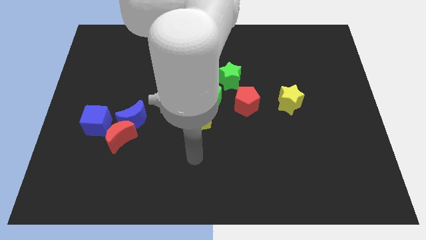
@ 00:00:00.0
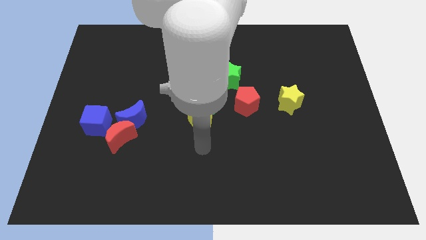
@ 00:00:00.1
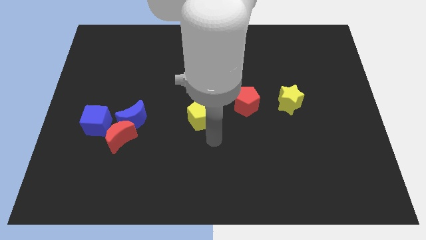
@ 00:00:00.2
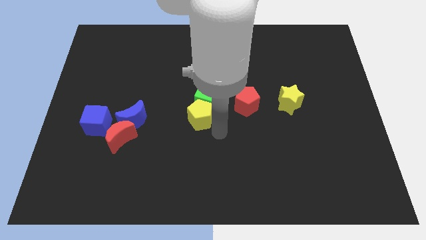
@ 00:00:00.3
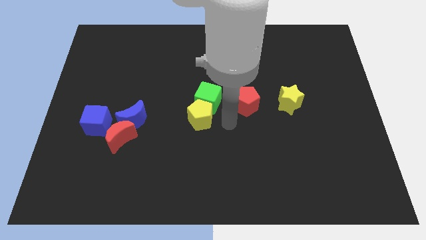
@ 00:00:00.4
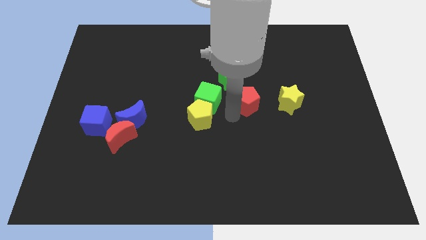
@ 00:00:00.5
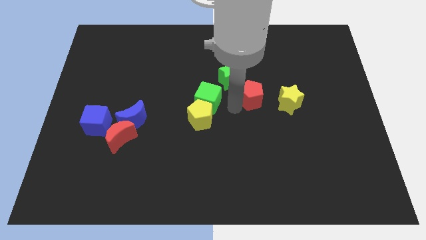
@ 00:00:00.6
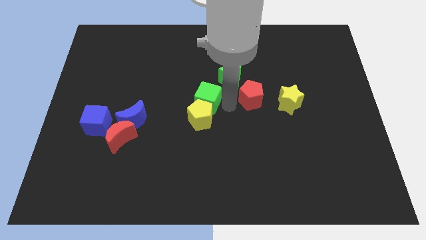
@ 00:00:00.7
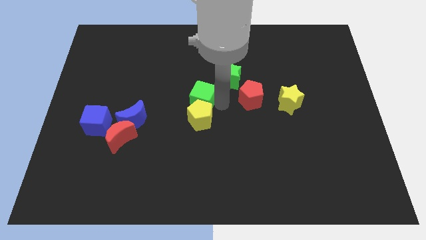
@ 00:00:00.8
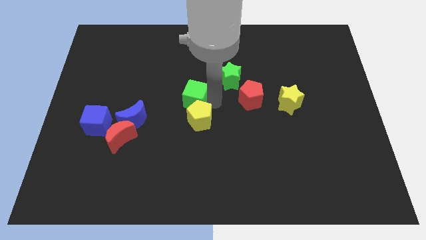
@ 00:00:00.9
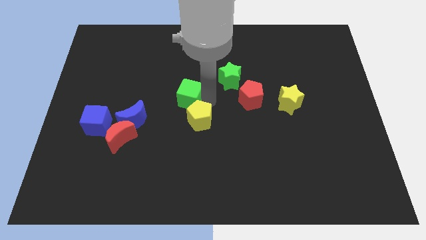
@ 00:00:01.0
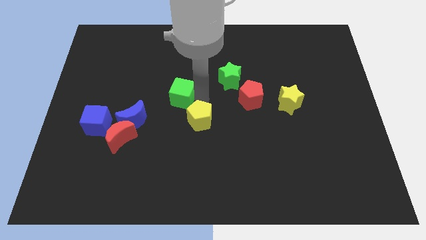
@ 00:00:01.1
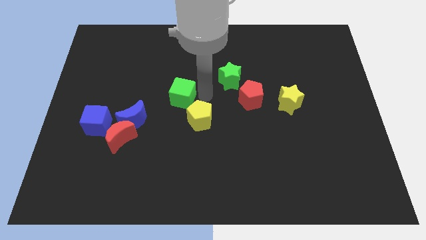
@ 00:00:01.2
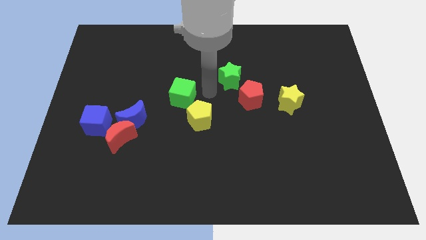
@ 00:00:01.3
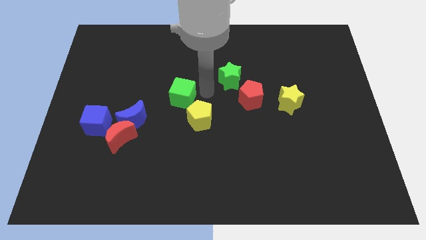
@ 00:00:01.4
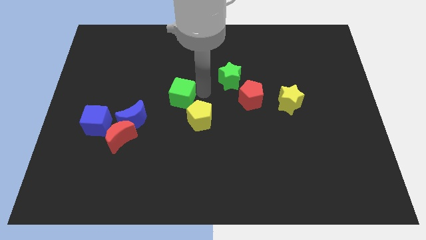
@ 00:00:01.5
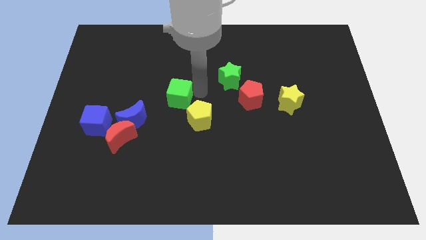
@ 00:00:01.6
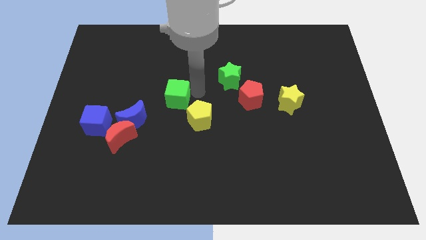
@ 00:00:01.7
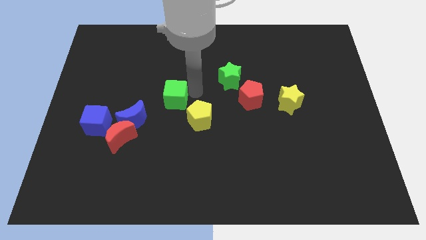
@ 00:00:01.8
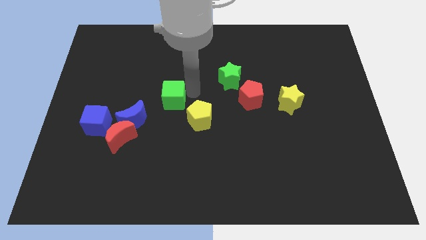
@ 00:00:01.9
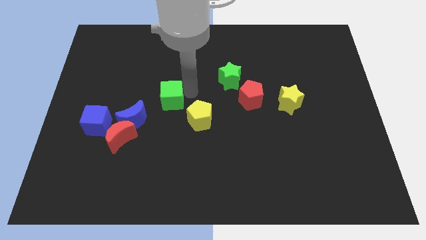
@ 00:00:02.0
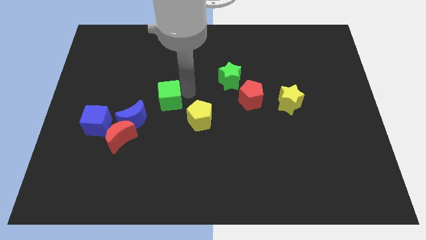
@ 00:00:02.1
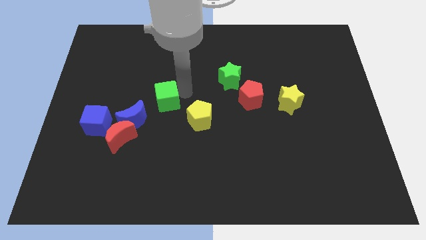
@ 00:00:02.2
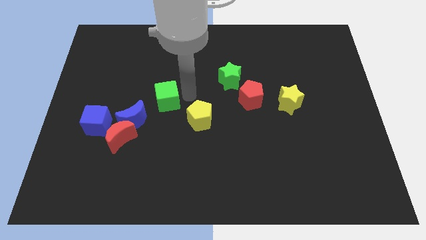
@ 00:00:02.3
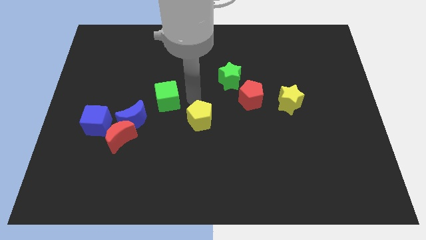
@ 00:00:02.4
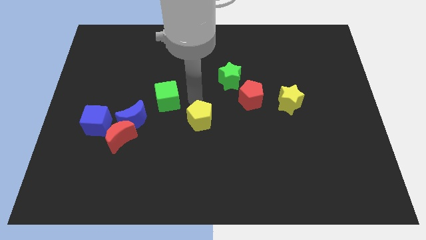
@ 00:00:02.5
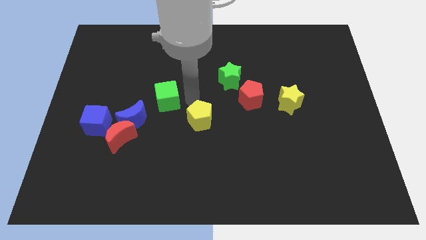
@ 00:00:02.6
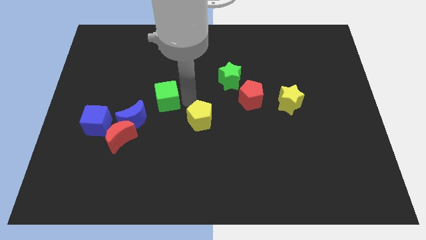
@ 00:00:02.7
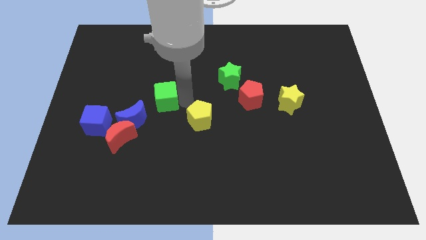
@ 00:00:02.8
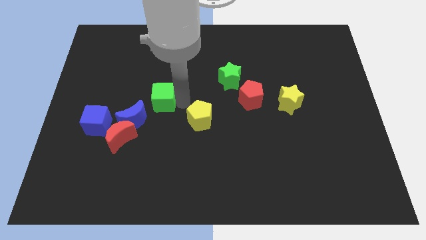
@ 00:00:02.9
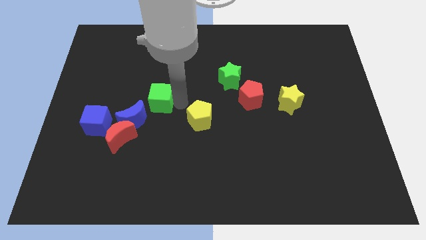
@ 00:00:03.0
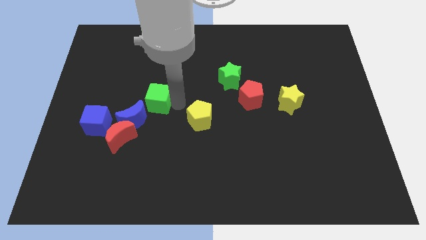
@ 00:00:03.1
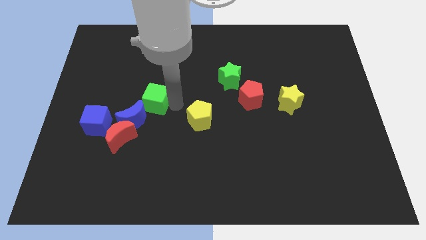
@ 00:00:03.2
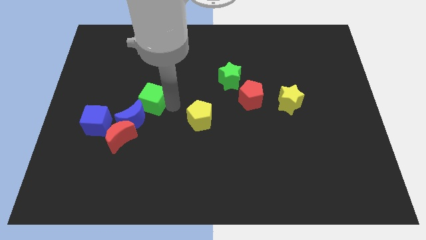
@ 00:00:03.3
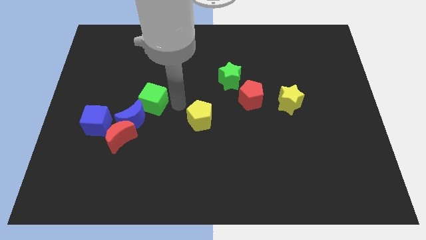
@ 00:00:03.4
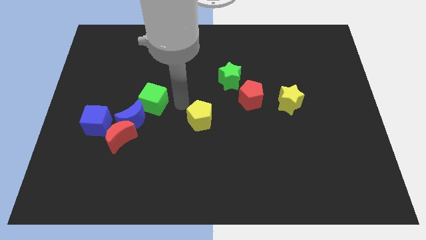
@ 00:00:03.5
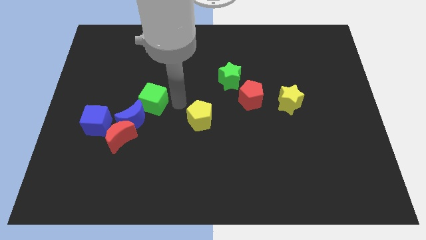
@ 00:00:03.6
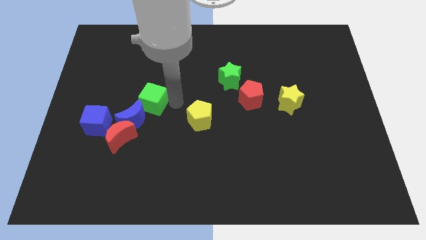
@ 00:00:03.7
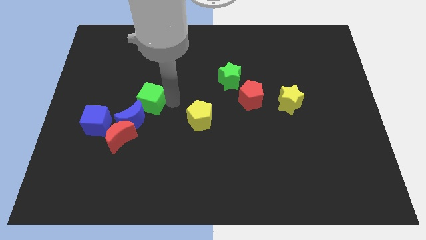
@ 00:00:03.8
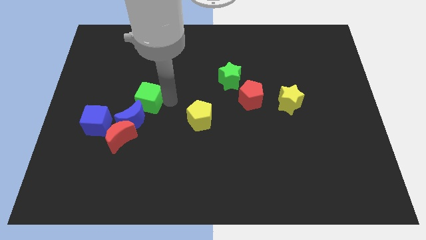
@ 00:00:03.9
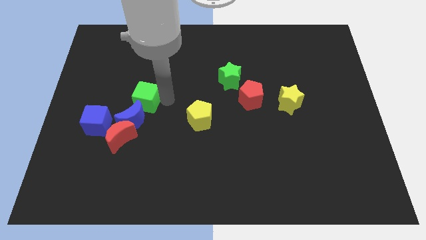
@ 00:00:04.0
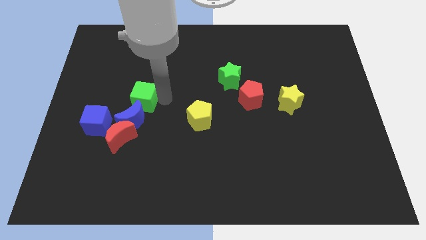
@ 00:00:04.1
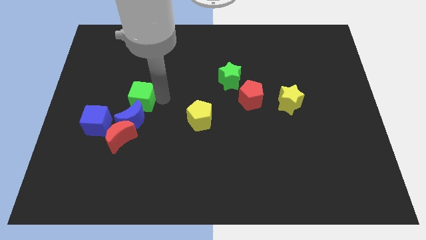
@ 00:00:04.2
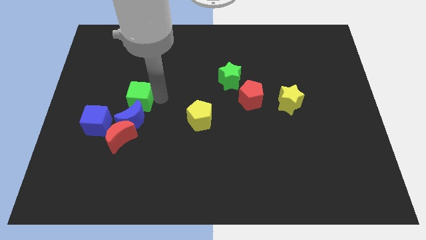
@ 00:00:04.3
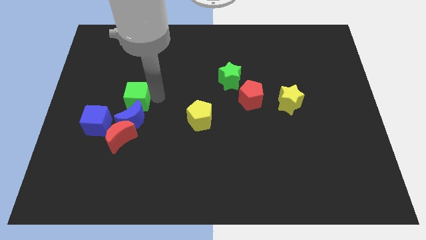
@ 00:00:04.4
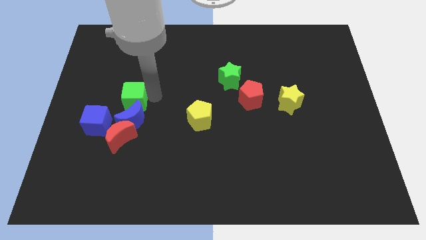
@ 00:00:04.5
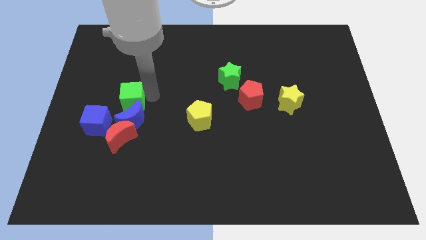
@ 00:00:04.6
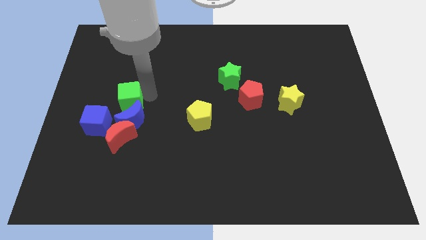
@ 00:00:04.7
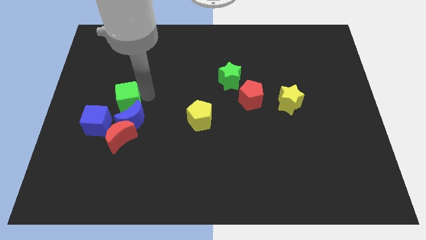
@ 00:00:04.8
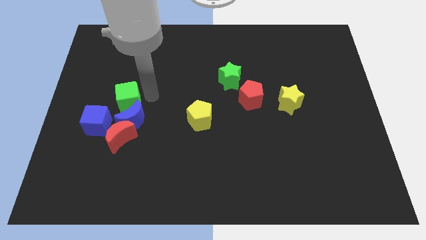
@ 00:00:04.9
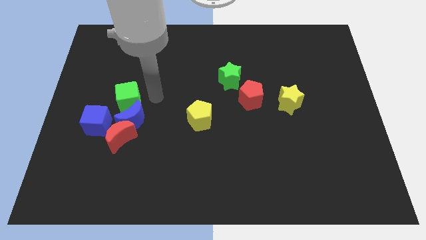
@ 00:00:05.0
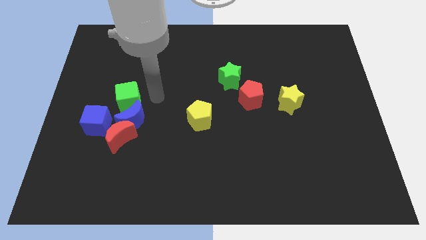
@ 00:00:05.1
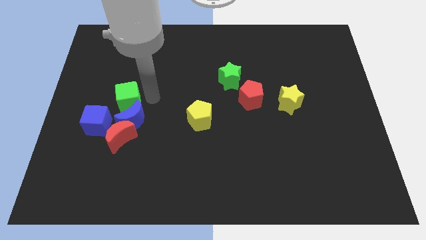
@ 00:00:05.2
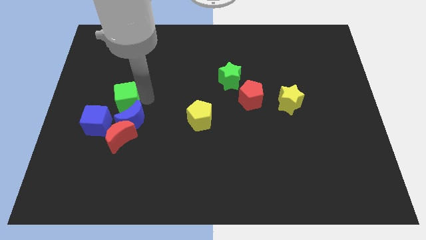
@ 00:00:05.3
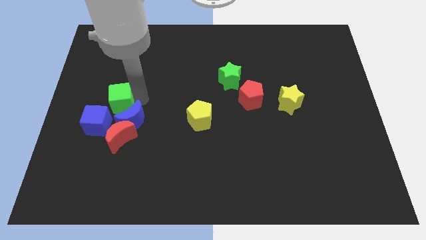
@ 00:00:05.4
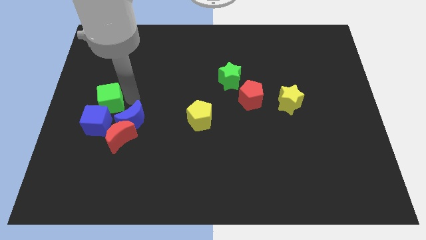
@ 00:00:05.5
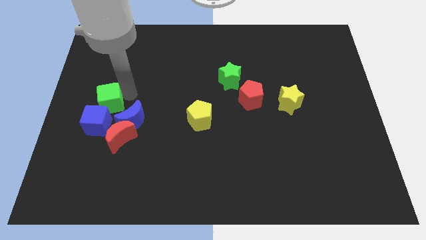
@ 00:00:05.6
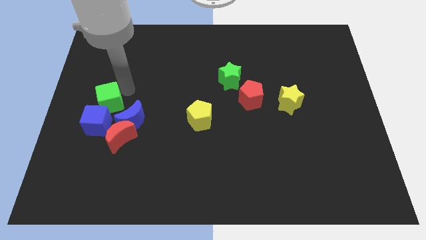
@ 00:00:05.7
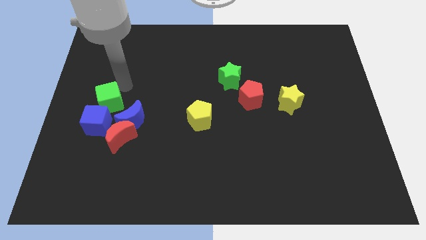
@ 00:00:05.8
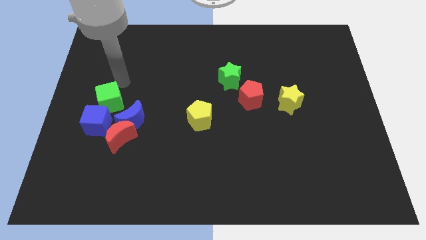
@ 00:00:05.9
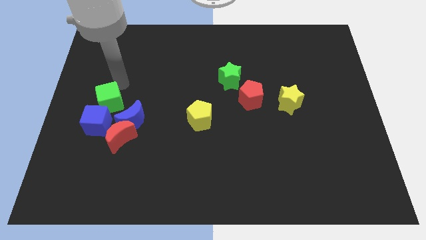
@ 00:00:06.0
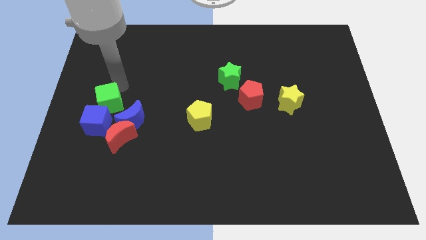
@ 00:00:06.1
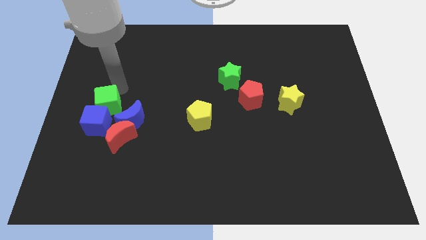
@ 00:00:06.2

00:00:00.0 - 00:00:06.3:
put the green cube to the blue cube

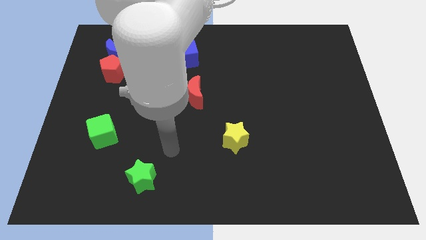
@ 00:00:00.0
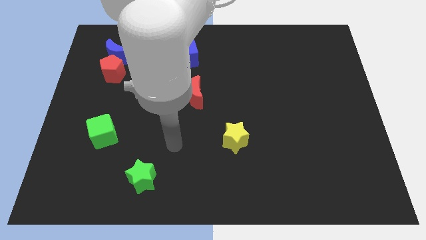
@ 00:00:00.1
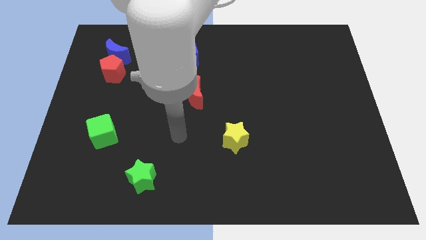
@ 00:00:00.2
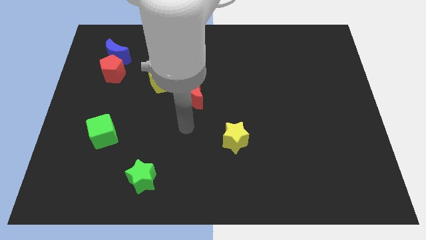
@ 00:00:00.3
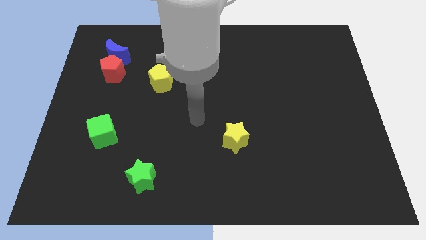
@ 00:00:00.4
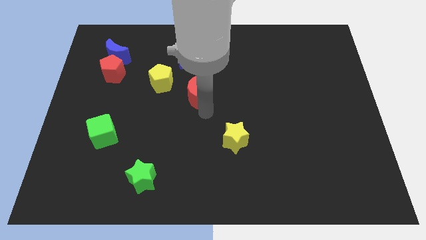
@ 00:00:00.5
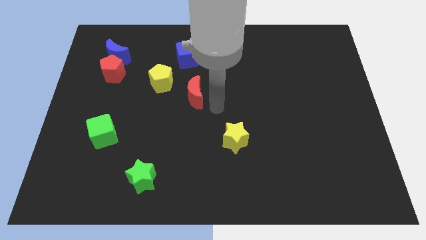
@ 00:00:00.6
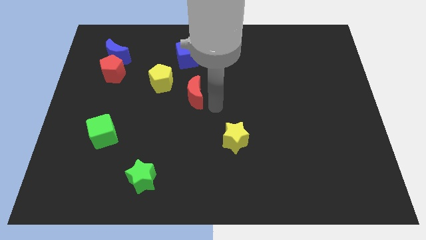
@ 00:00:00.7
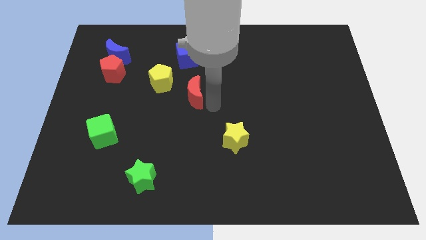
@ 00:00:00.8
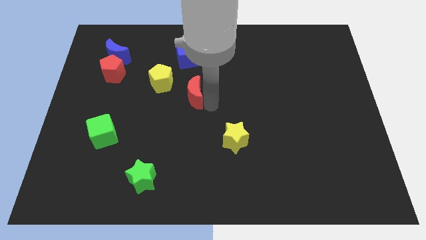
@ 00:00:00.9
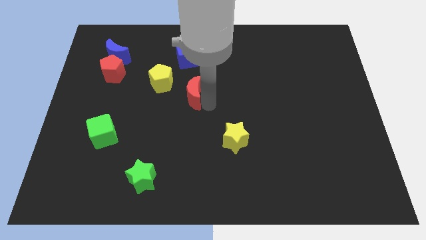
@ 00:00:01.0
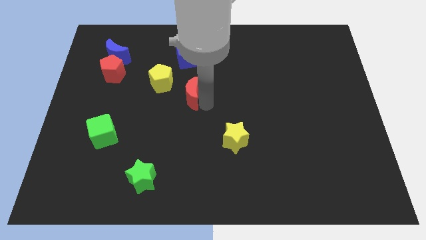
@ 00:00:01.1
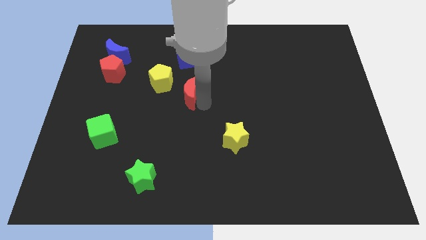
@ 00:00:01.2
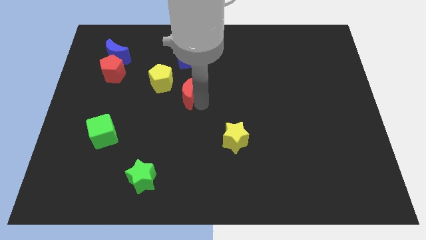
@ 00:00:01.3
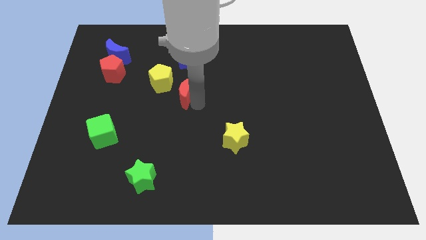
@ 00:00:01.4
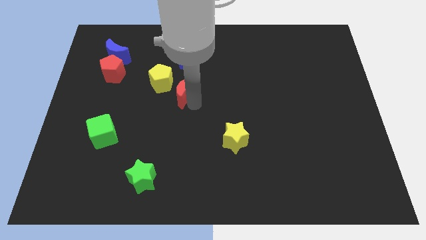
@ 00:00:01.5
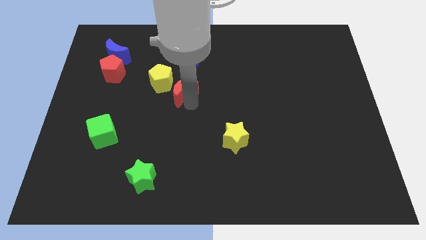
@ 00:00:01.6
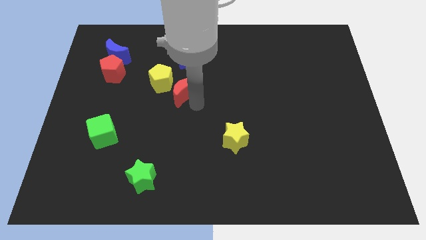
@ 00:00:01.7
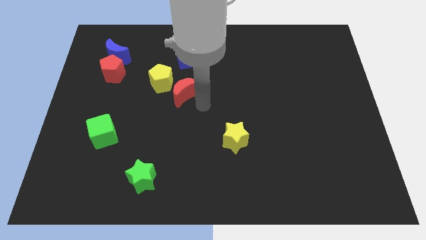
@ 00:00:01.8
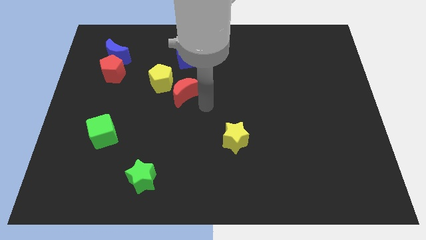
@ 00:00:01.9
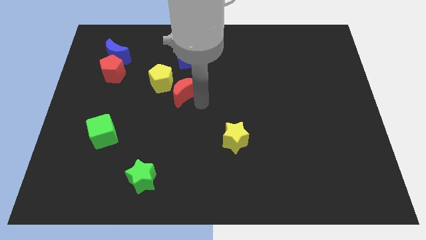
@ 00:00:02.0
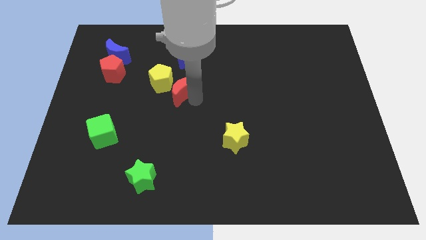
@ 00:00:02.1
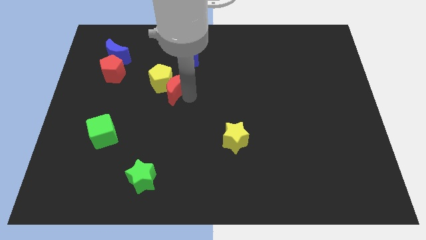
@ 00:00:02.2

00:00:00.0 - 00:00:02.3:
put the red moon towards the yellow pentagon

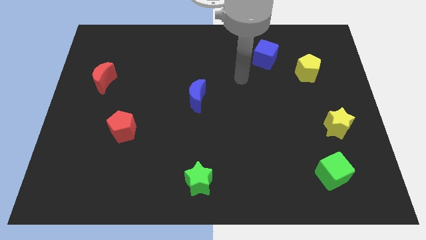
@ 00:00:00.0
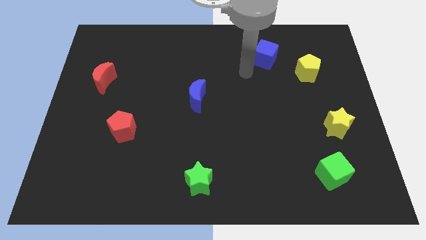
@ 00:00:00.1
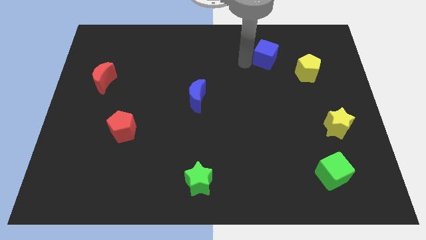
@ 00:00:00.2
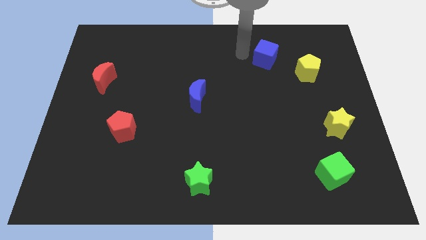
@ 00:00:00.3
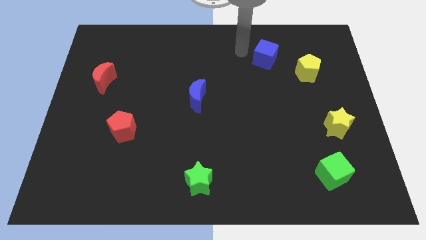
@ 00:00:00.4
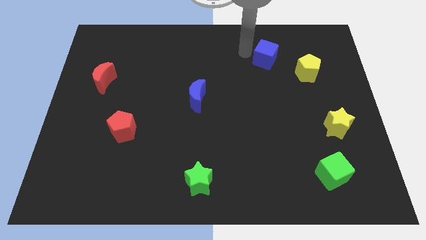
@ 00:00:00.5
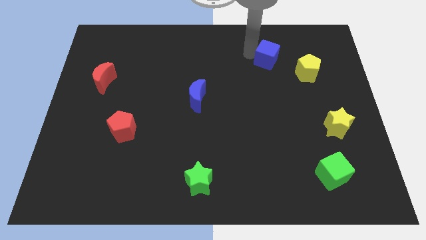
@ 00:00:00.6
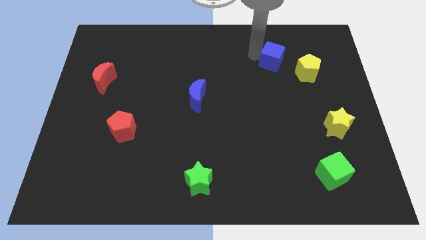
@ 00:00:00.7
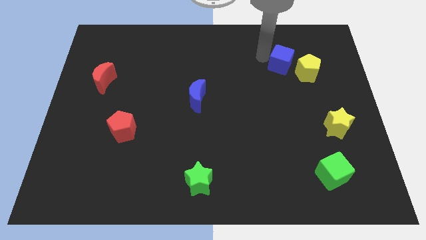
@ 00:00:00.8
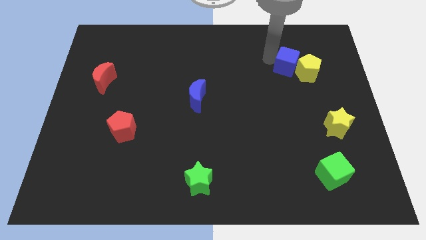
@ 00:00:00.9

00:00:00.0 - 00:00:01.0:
push the blue cube next to the yellow pentagon
